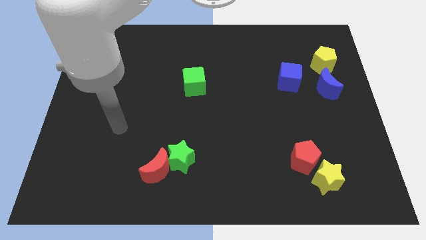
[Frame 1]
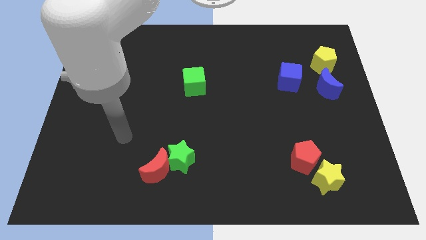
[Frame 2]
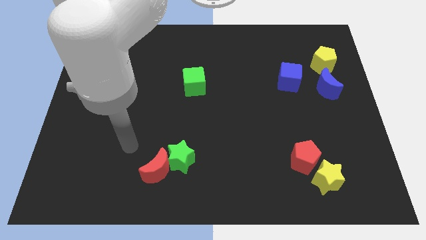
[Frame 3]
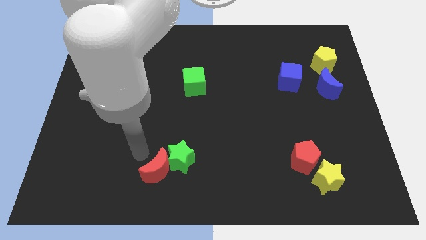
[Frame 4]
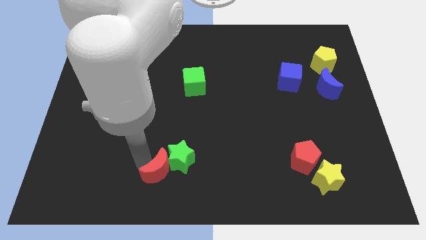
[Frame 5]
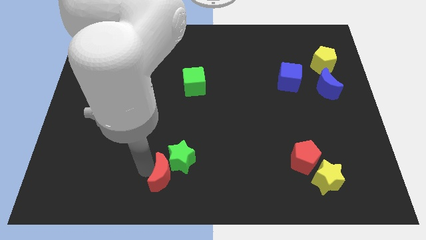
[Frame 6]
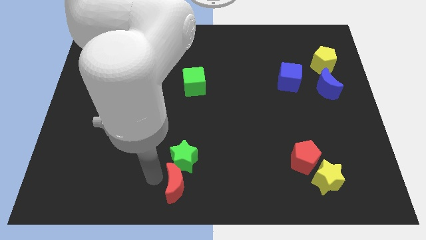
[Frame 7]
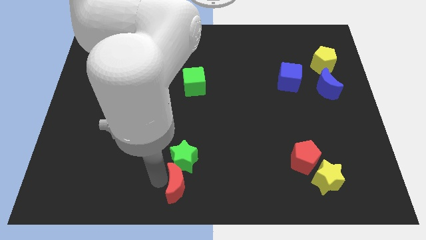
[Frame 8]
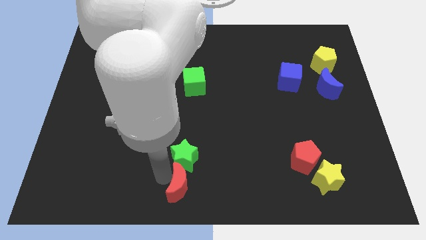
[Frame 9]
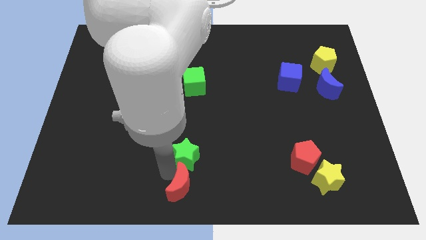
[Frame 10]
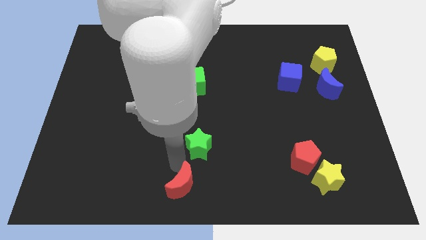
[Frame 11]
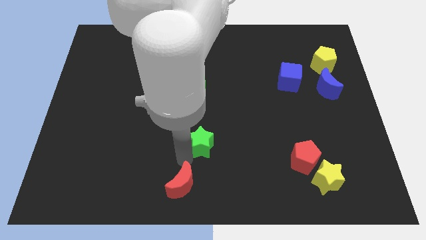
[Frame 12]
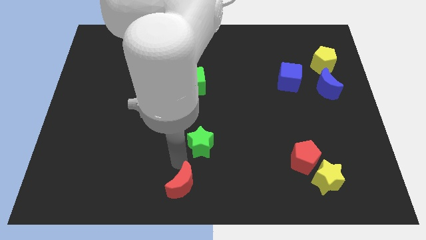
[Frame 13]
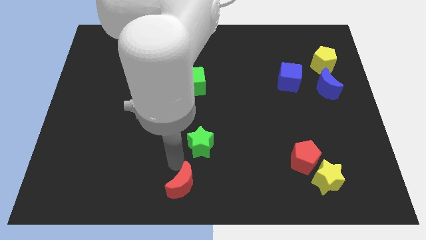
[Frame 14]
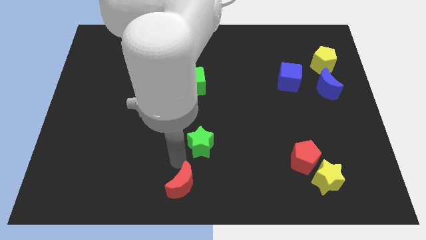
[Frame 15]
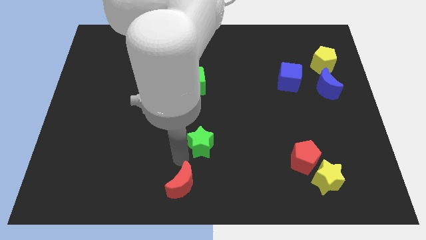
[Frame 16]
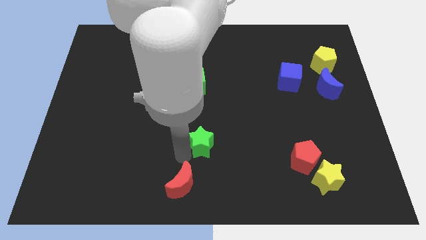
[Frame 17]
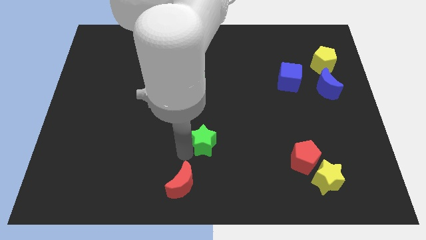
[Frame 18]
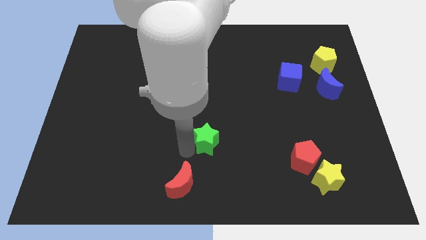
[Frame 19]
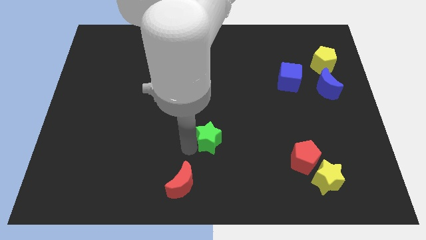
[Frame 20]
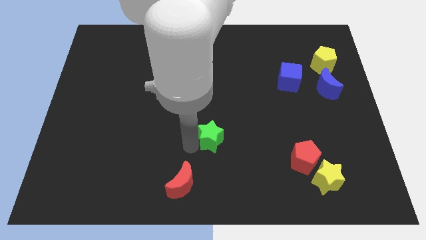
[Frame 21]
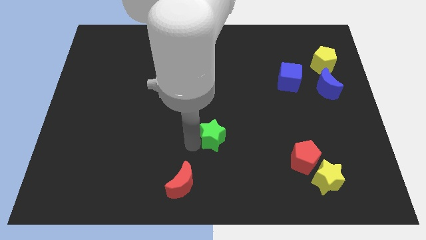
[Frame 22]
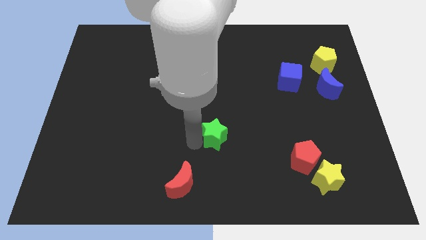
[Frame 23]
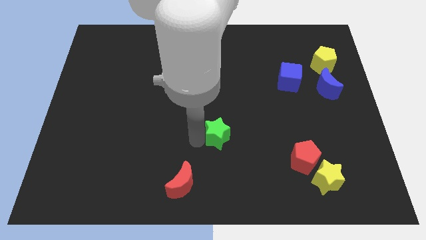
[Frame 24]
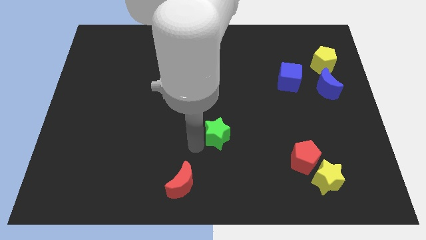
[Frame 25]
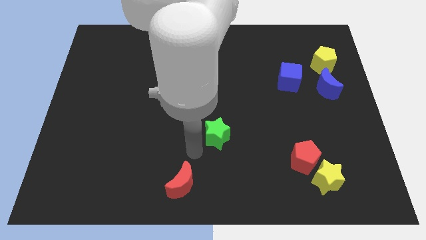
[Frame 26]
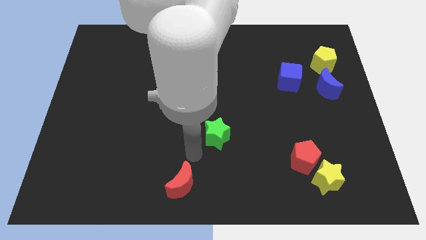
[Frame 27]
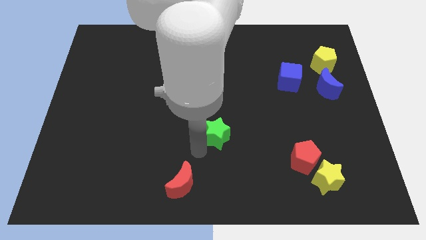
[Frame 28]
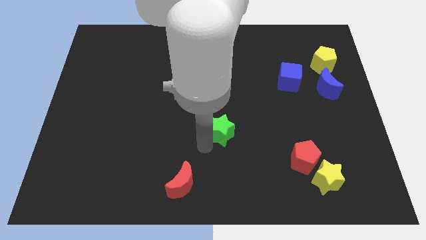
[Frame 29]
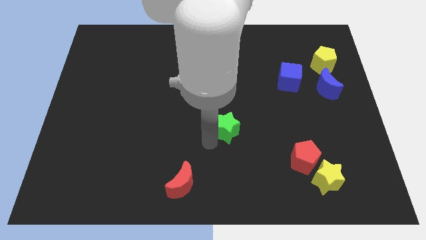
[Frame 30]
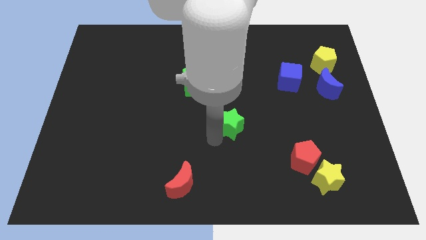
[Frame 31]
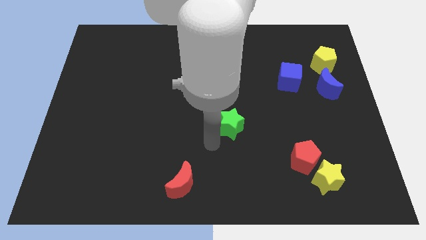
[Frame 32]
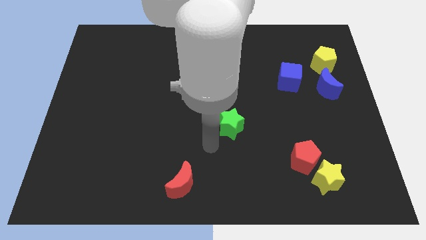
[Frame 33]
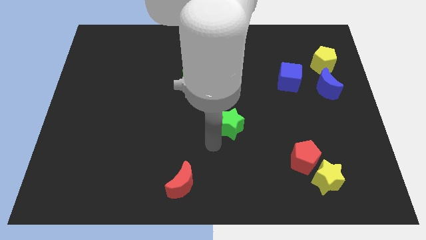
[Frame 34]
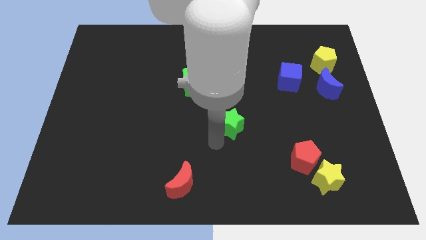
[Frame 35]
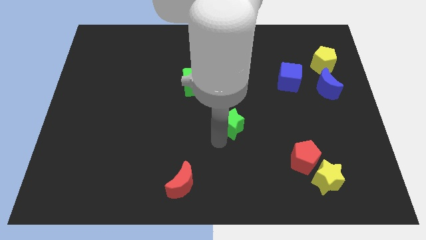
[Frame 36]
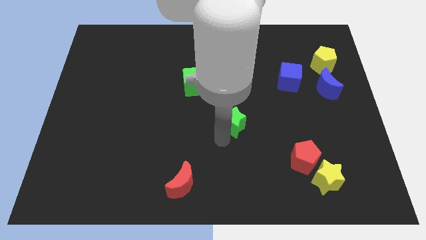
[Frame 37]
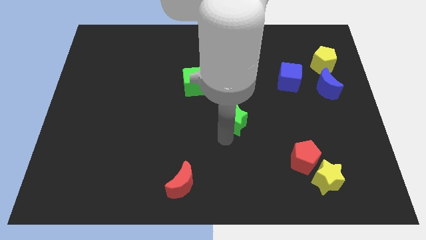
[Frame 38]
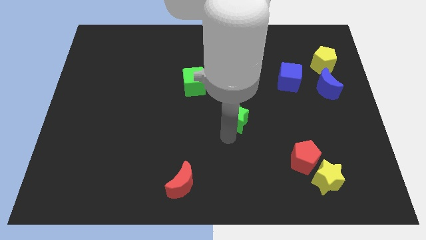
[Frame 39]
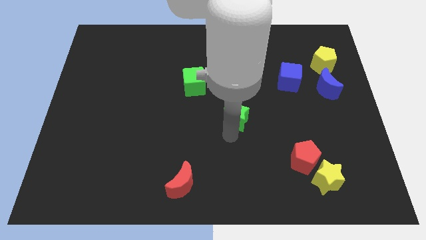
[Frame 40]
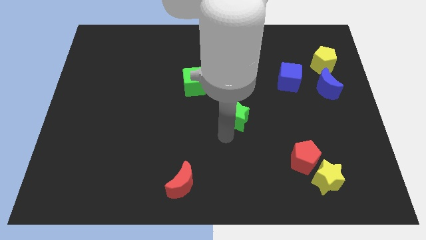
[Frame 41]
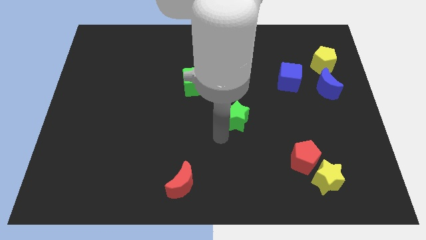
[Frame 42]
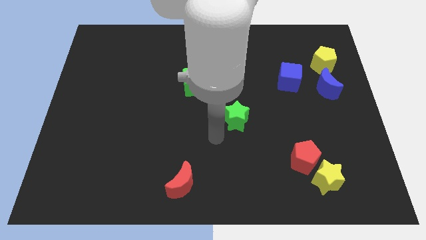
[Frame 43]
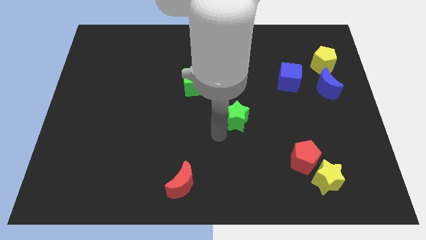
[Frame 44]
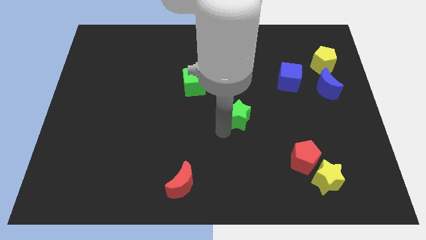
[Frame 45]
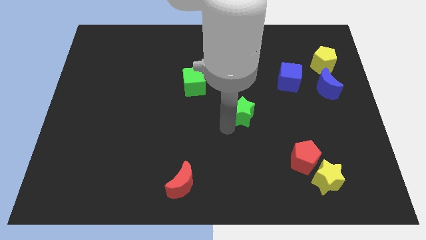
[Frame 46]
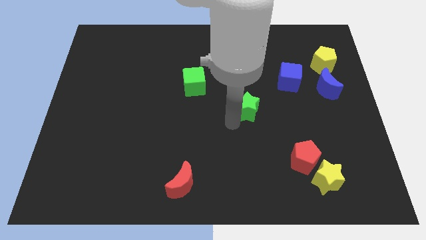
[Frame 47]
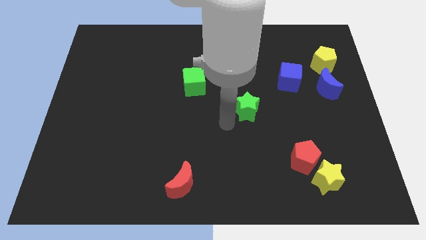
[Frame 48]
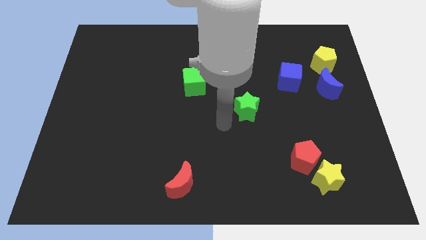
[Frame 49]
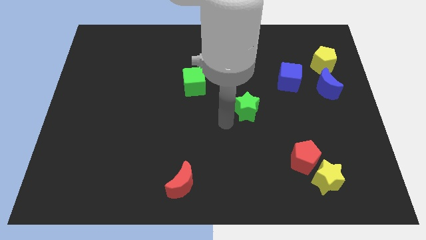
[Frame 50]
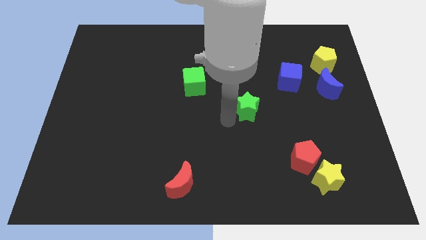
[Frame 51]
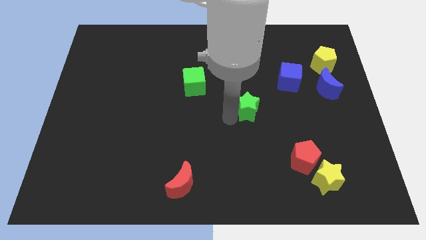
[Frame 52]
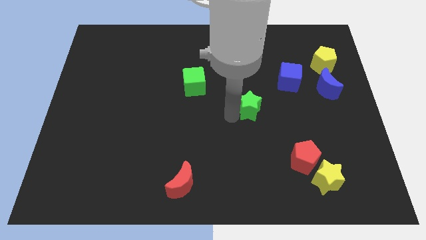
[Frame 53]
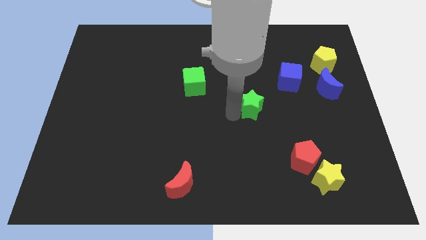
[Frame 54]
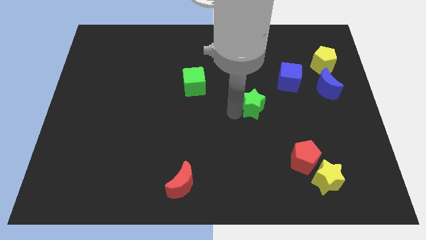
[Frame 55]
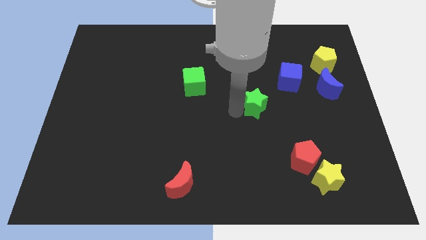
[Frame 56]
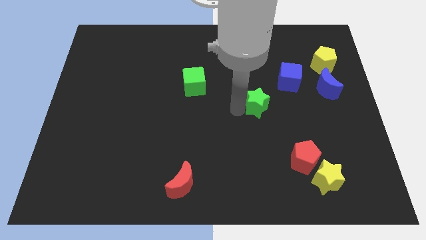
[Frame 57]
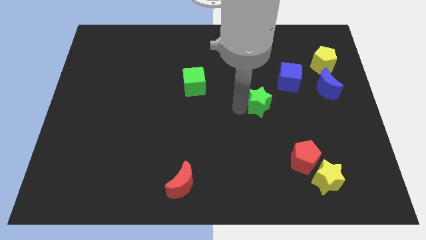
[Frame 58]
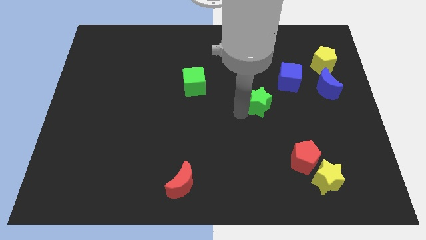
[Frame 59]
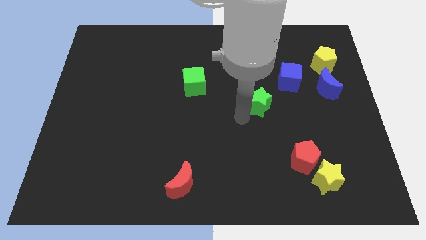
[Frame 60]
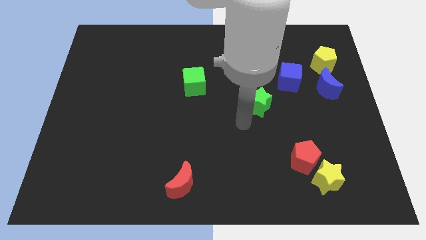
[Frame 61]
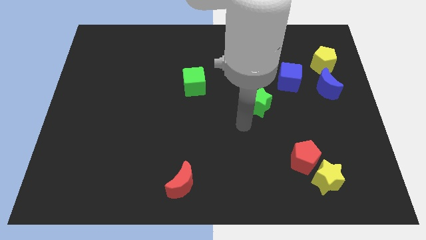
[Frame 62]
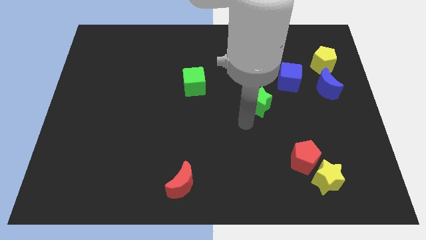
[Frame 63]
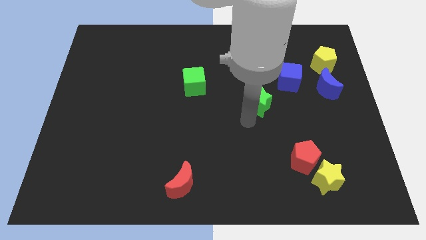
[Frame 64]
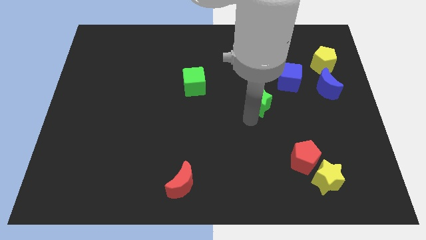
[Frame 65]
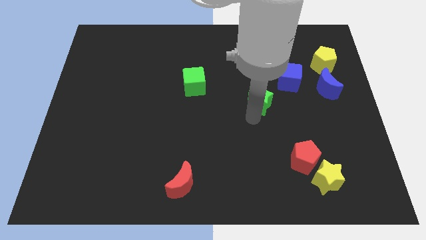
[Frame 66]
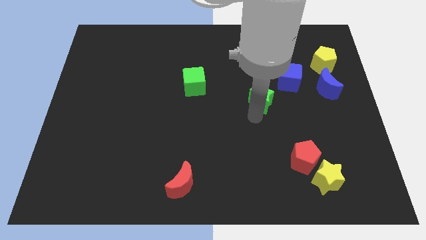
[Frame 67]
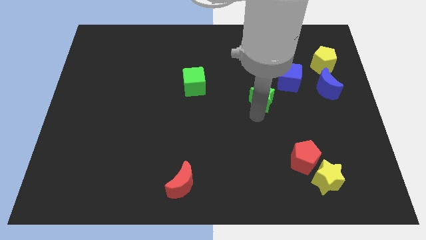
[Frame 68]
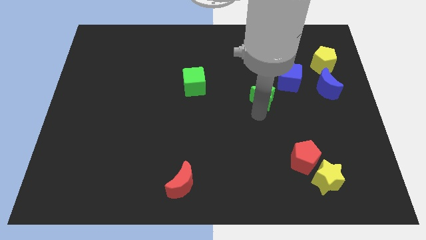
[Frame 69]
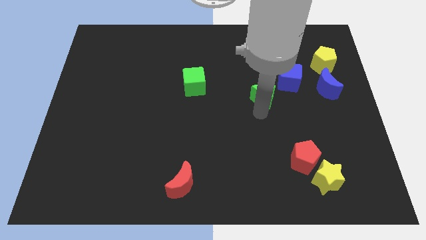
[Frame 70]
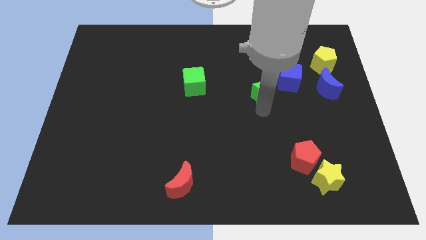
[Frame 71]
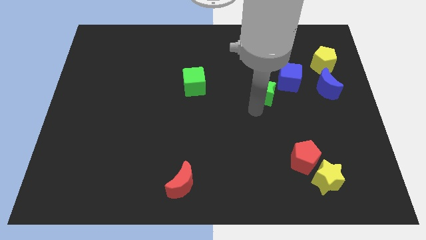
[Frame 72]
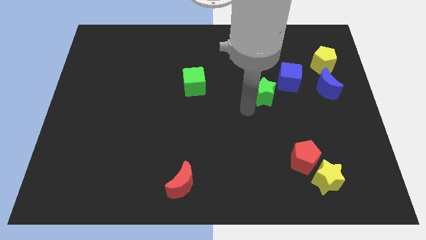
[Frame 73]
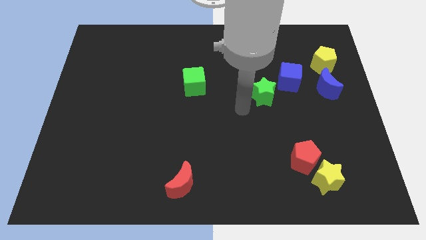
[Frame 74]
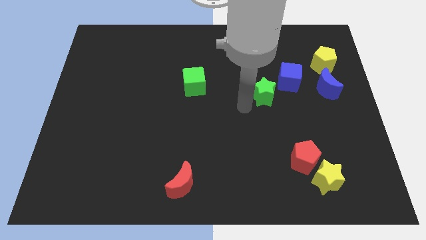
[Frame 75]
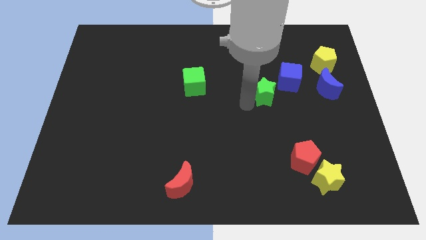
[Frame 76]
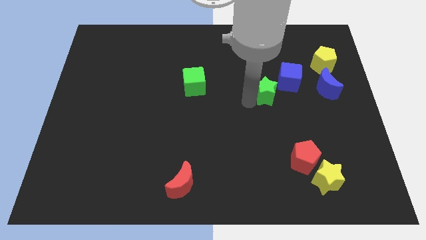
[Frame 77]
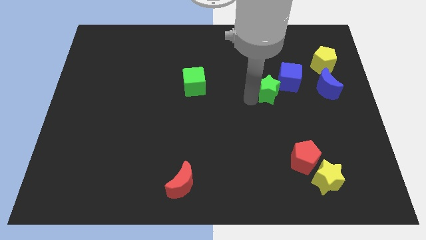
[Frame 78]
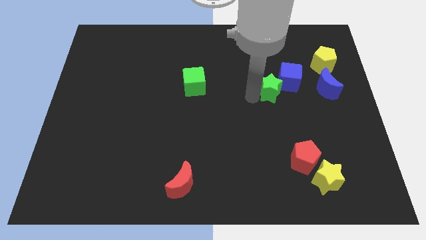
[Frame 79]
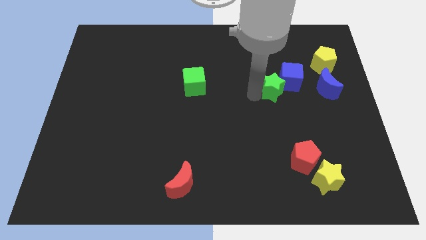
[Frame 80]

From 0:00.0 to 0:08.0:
move the green star next to the blue cube
